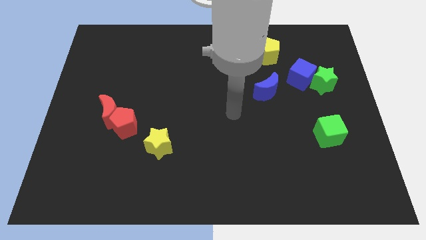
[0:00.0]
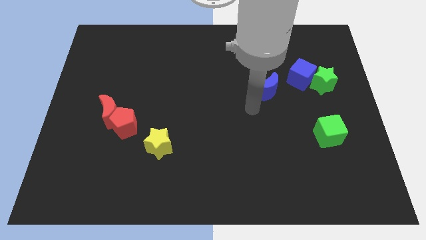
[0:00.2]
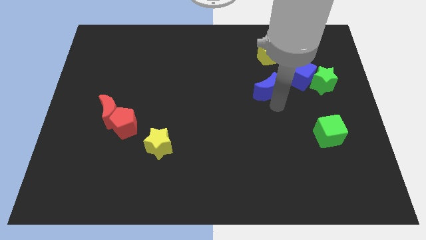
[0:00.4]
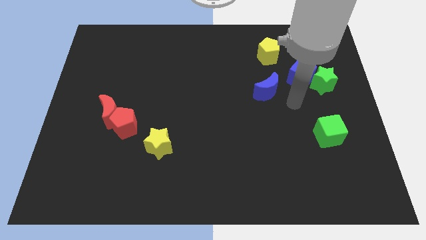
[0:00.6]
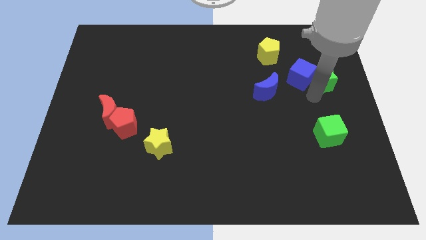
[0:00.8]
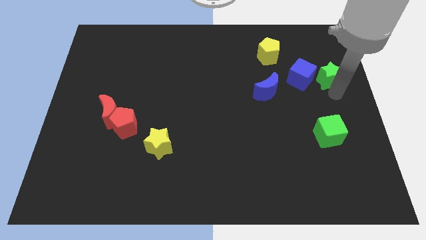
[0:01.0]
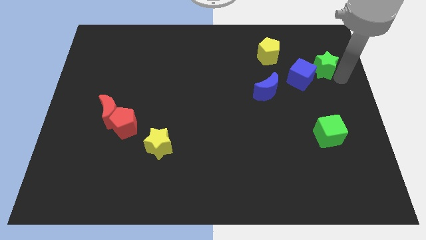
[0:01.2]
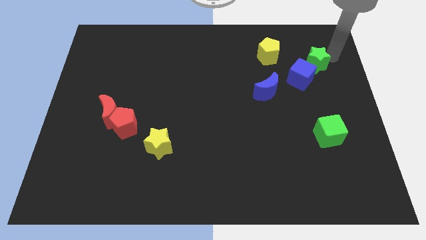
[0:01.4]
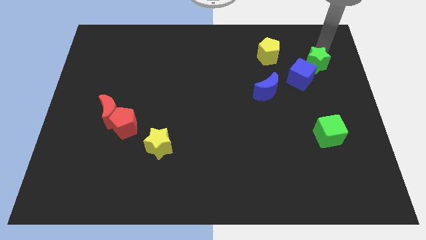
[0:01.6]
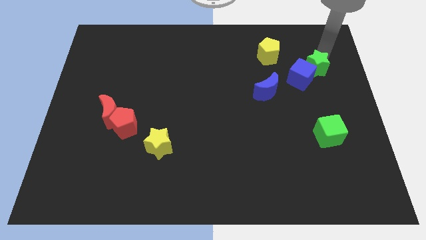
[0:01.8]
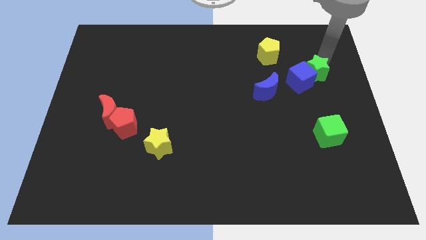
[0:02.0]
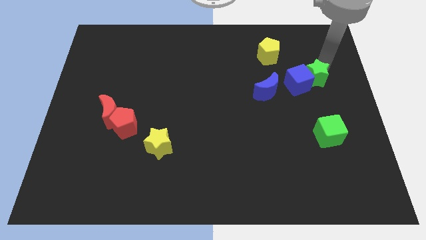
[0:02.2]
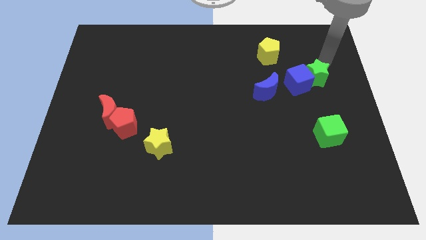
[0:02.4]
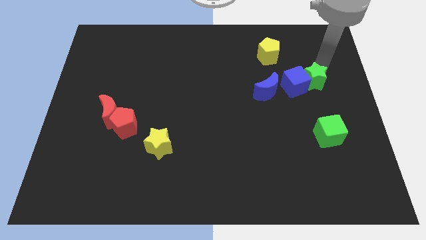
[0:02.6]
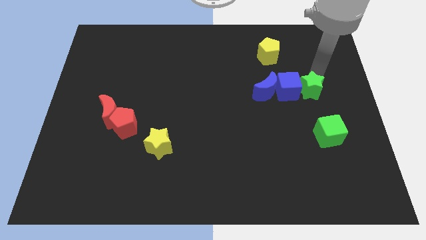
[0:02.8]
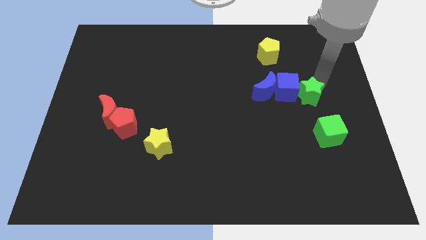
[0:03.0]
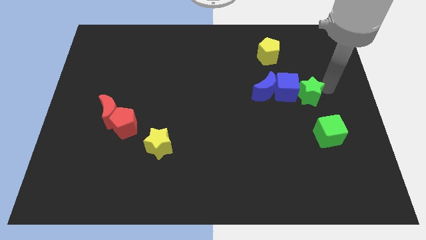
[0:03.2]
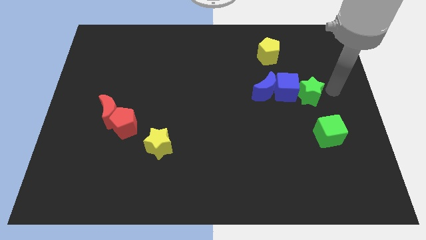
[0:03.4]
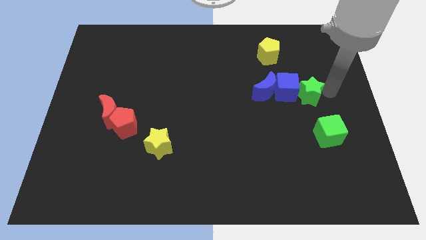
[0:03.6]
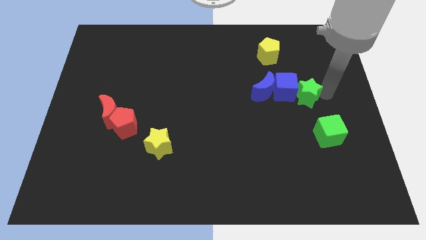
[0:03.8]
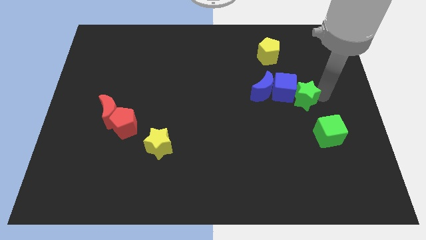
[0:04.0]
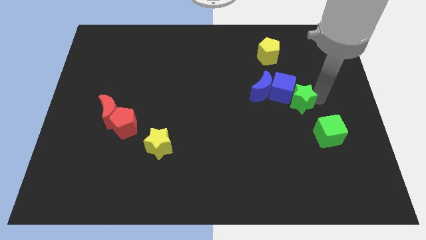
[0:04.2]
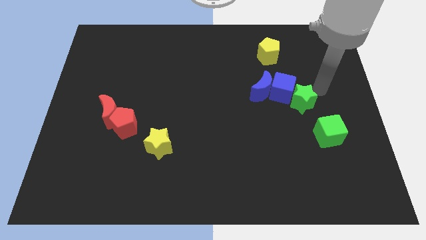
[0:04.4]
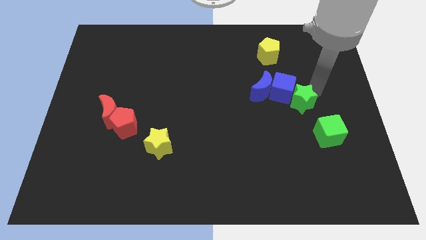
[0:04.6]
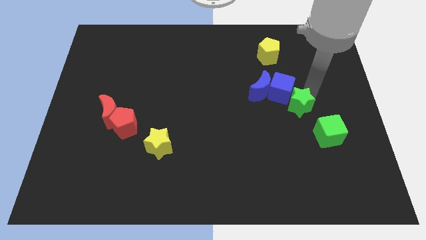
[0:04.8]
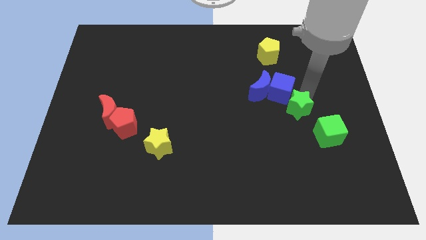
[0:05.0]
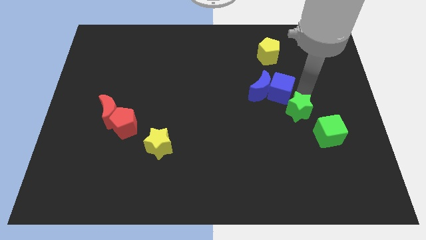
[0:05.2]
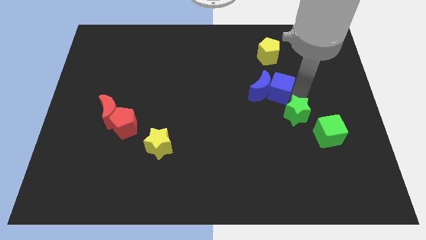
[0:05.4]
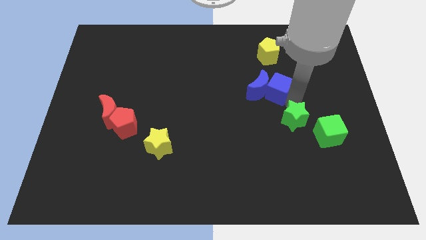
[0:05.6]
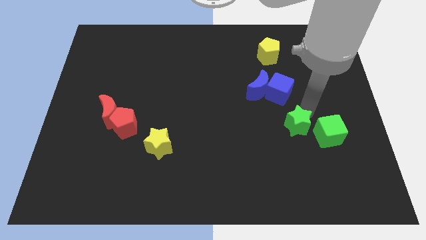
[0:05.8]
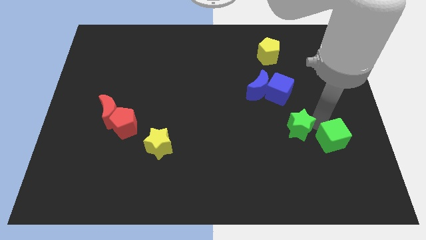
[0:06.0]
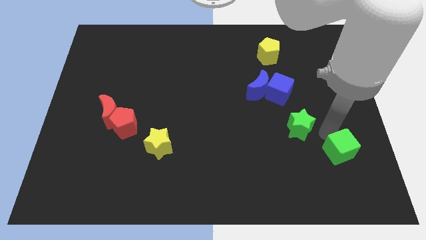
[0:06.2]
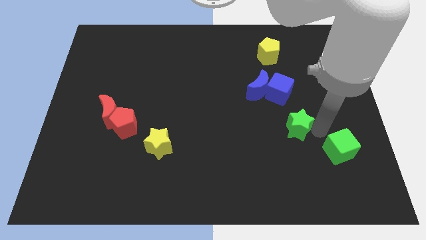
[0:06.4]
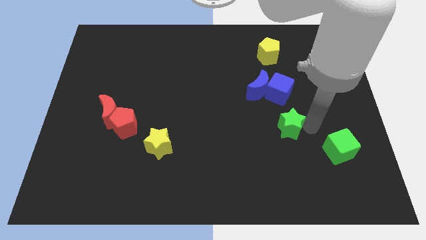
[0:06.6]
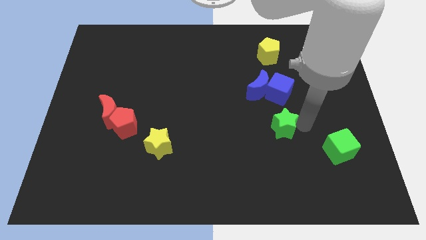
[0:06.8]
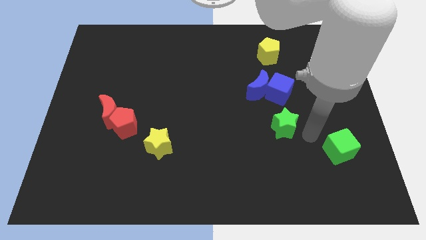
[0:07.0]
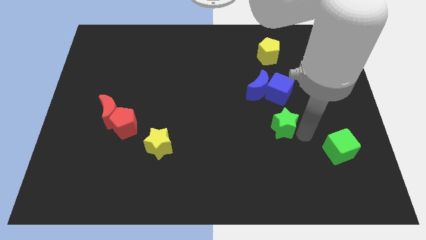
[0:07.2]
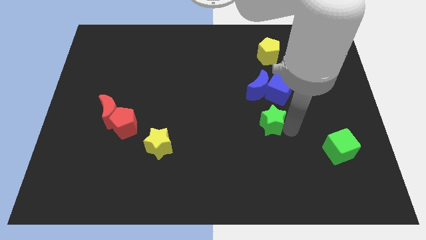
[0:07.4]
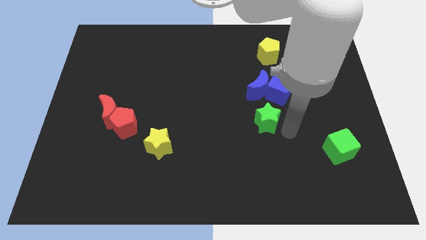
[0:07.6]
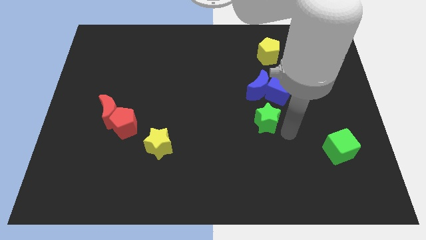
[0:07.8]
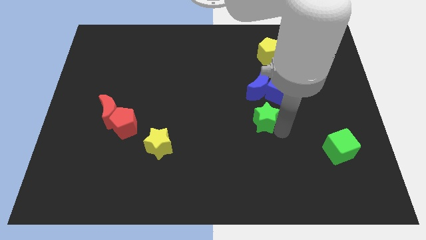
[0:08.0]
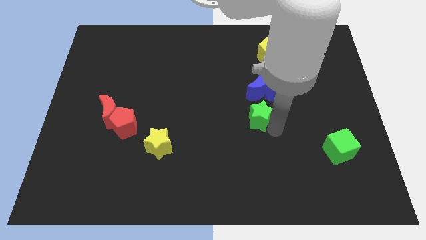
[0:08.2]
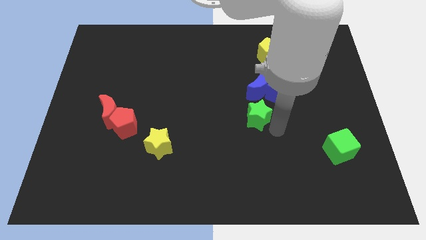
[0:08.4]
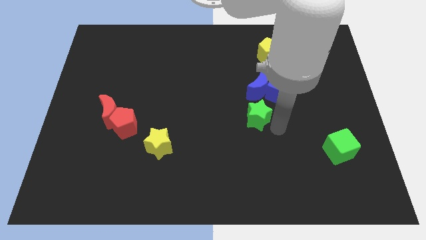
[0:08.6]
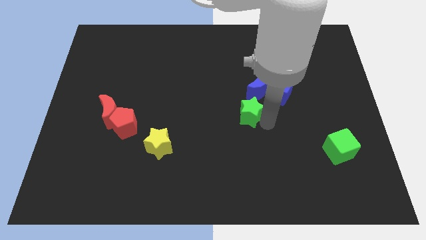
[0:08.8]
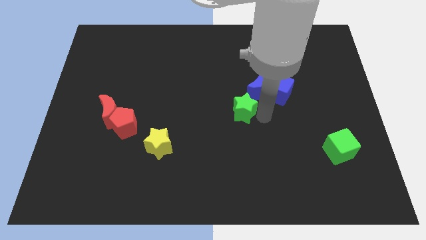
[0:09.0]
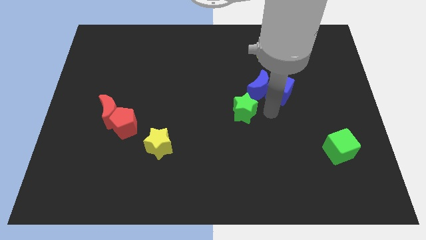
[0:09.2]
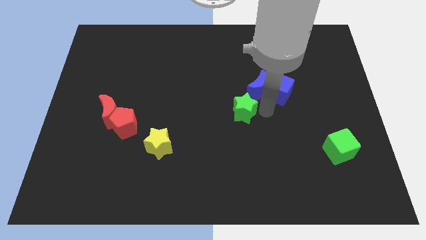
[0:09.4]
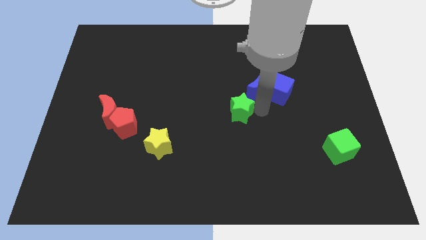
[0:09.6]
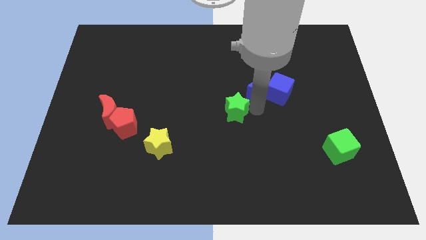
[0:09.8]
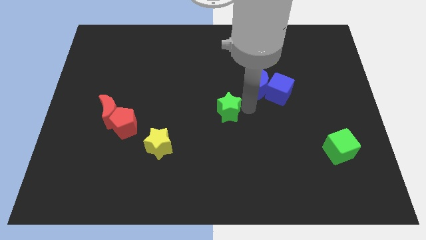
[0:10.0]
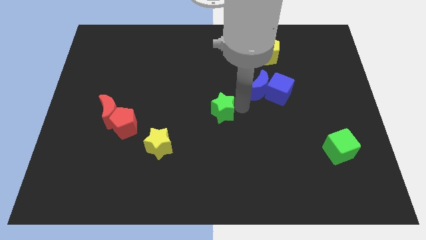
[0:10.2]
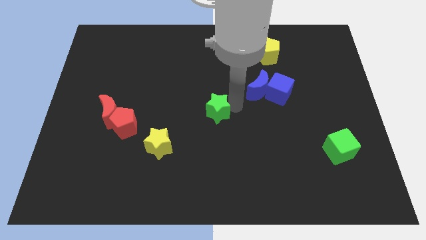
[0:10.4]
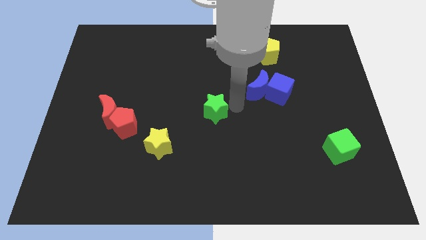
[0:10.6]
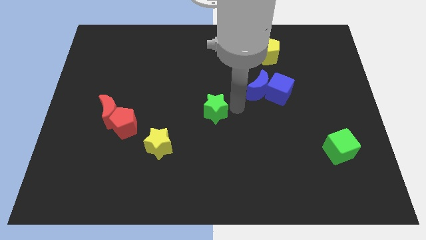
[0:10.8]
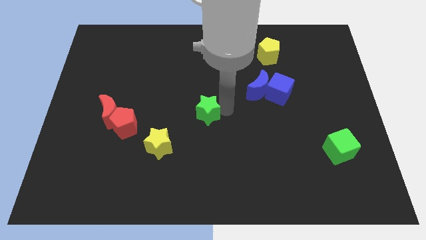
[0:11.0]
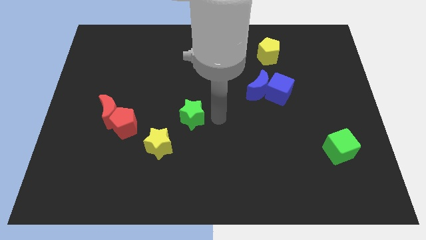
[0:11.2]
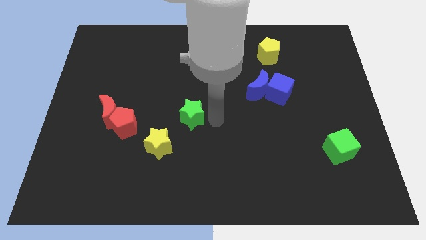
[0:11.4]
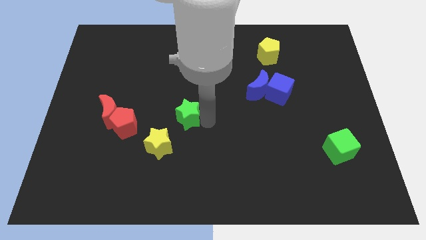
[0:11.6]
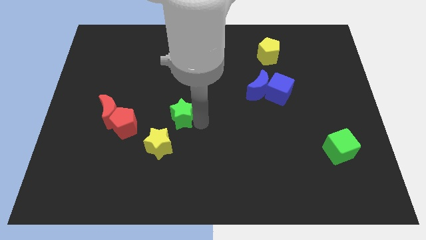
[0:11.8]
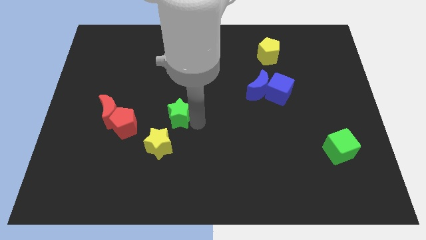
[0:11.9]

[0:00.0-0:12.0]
put the green star right of the red moon

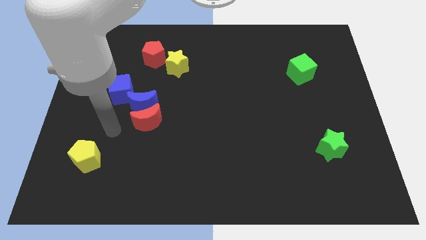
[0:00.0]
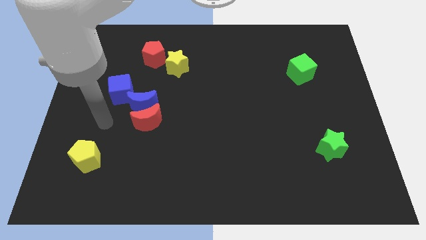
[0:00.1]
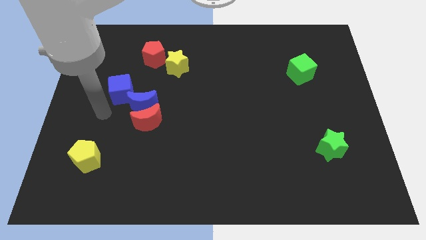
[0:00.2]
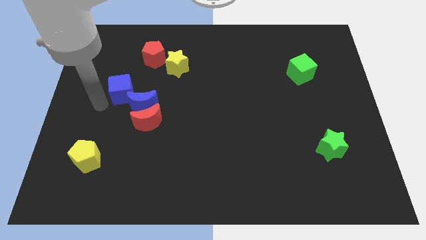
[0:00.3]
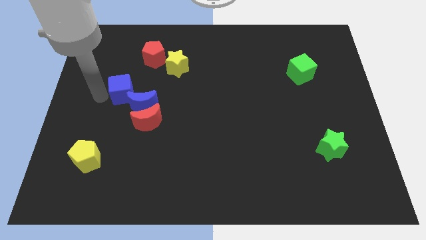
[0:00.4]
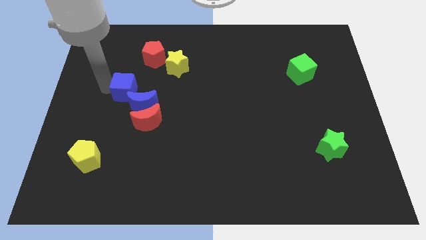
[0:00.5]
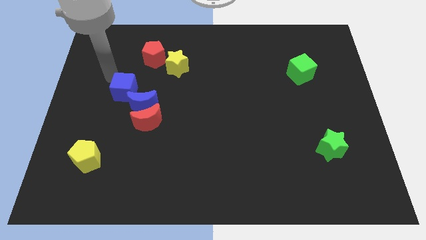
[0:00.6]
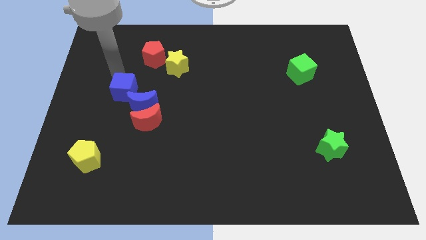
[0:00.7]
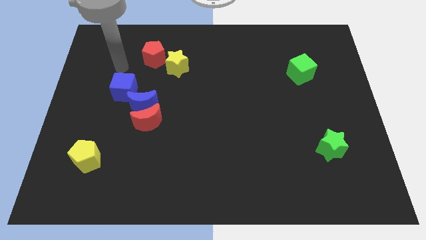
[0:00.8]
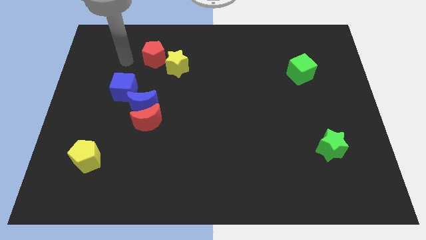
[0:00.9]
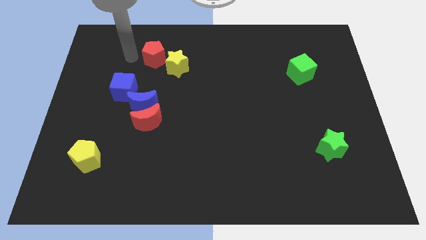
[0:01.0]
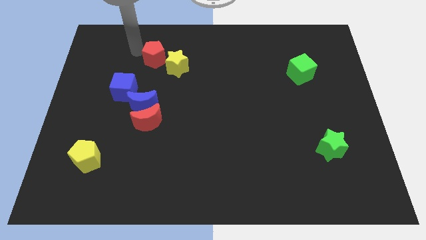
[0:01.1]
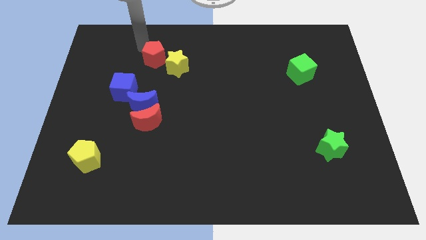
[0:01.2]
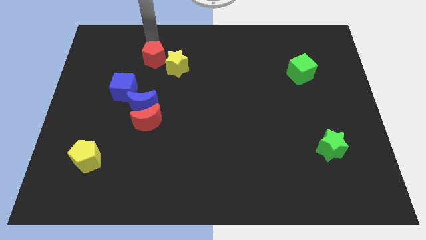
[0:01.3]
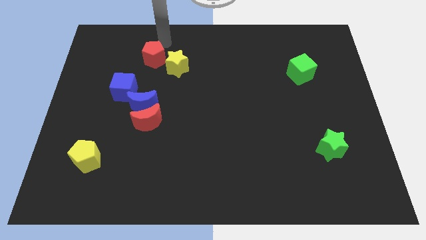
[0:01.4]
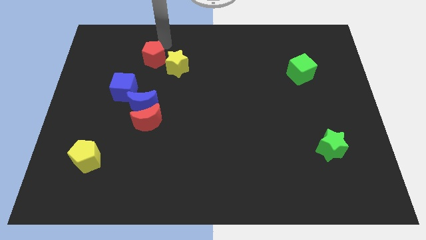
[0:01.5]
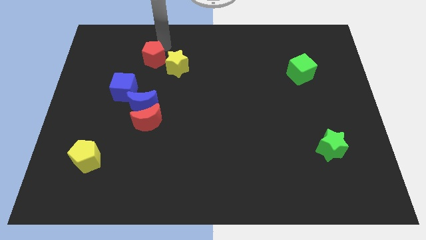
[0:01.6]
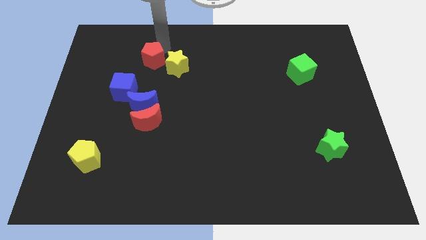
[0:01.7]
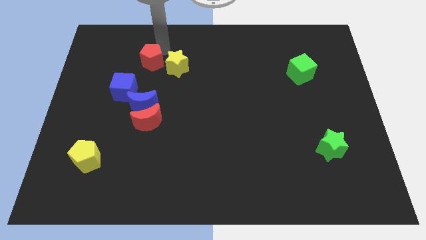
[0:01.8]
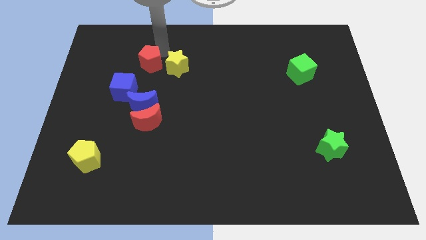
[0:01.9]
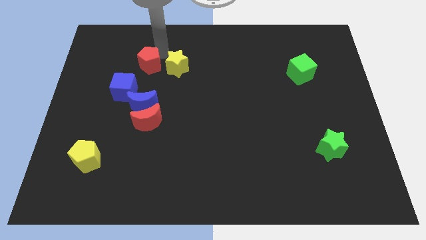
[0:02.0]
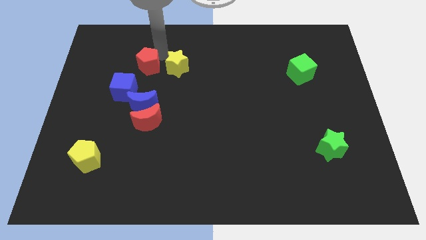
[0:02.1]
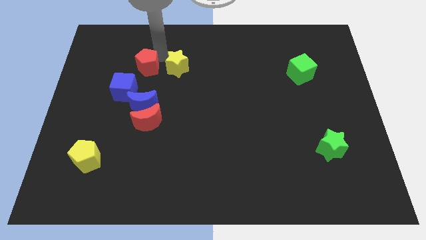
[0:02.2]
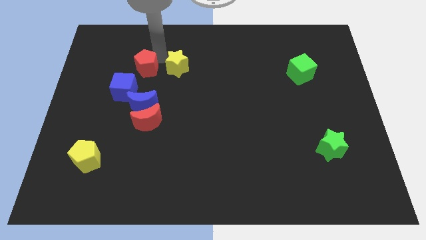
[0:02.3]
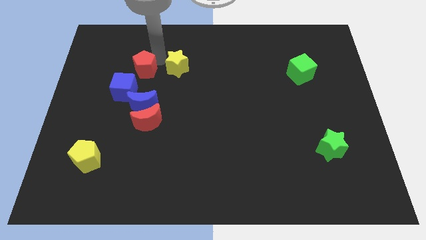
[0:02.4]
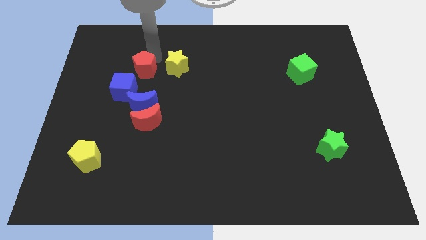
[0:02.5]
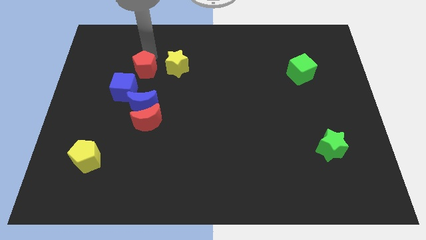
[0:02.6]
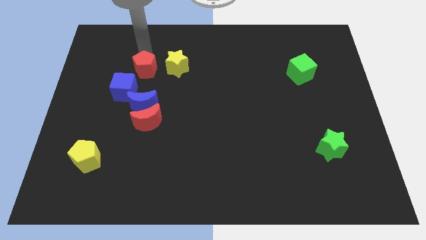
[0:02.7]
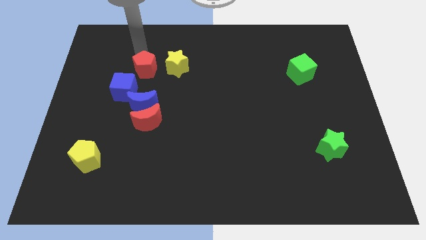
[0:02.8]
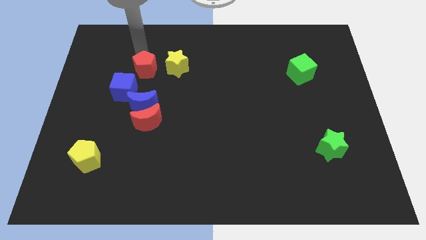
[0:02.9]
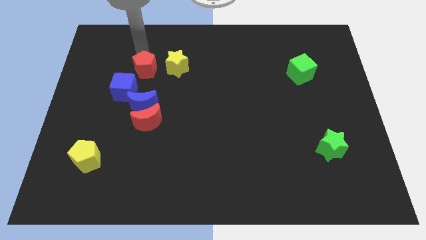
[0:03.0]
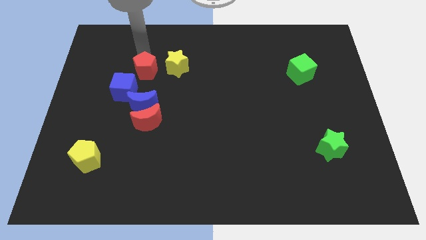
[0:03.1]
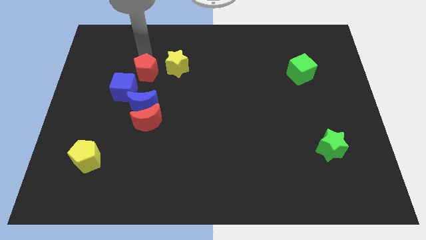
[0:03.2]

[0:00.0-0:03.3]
slide the red pentagon to the top of the red moon
